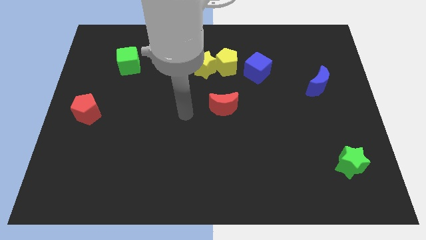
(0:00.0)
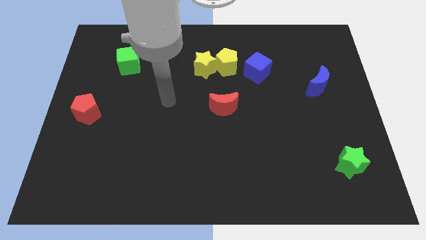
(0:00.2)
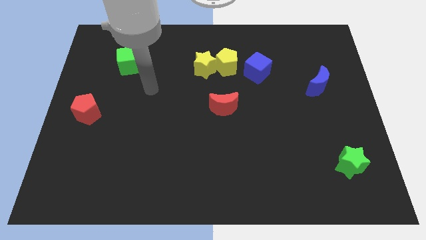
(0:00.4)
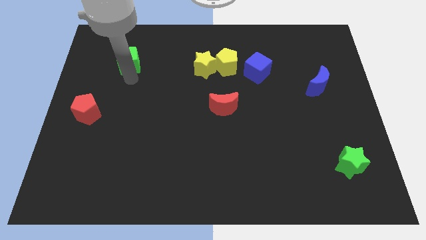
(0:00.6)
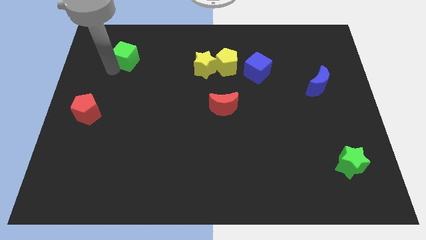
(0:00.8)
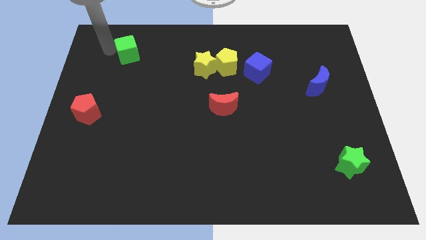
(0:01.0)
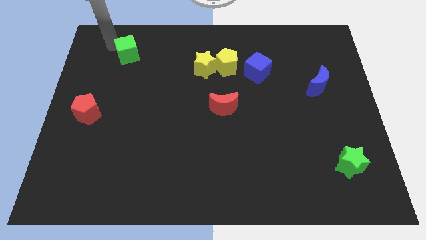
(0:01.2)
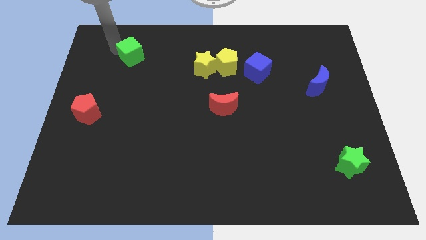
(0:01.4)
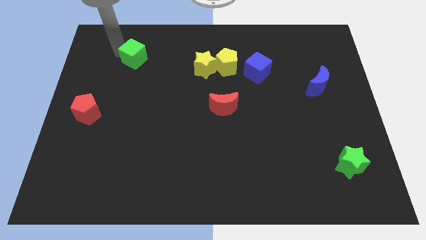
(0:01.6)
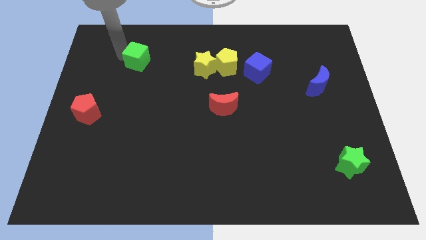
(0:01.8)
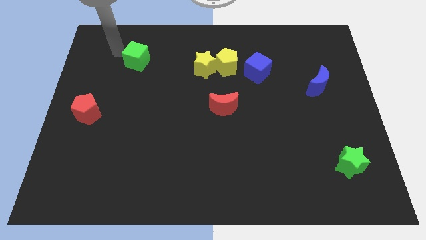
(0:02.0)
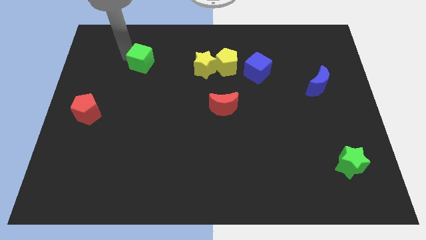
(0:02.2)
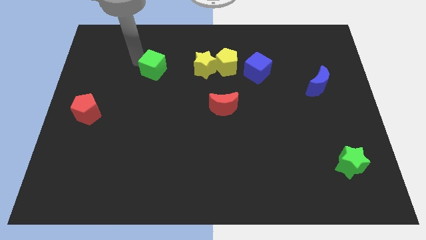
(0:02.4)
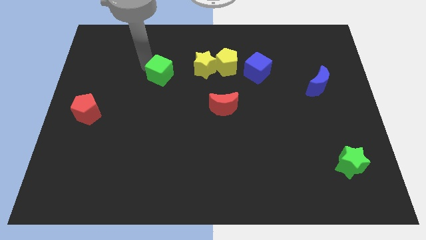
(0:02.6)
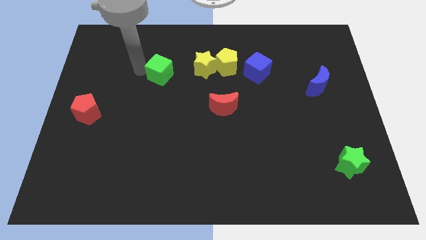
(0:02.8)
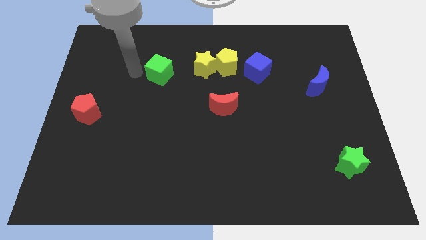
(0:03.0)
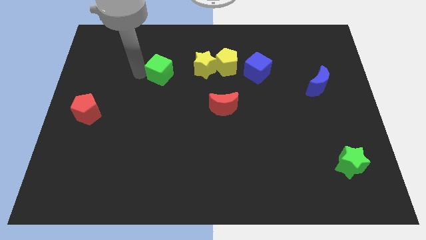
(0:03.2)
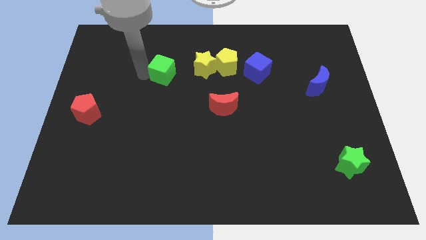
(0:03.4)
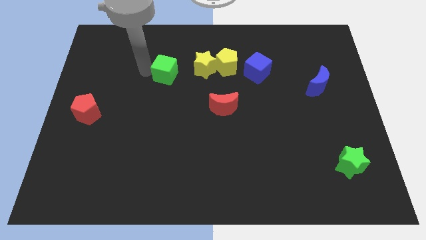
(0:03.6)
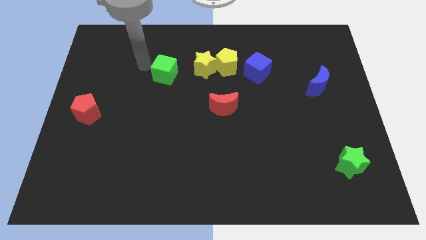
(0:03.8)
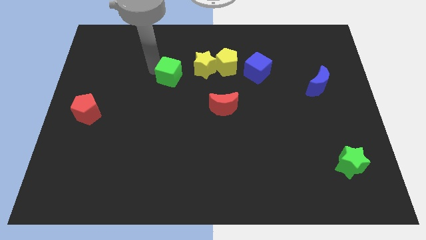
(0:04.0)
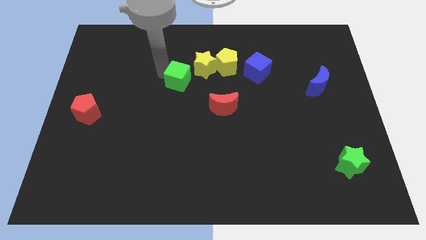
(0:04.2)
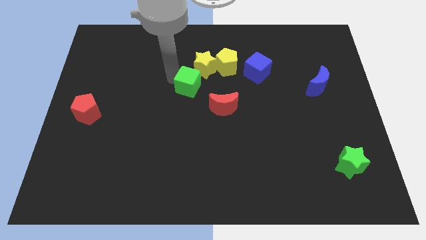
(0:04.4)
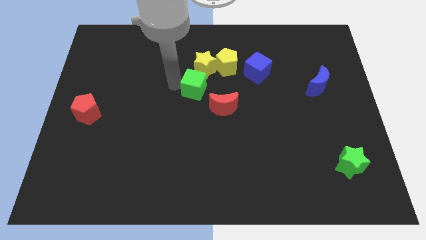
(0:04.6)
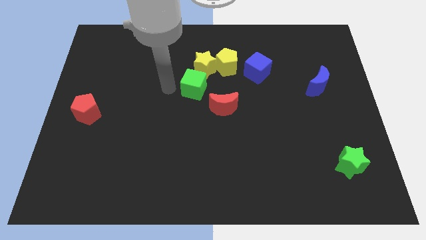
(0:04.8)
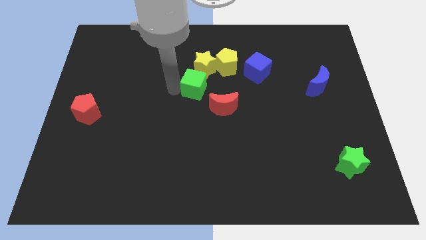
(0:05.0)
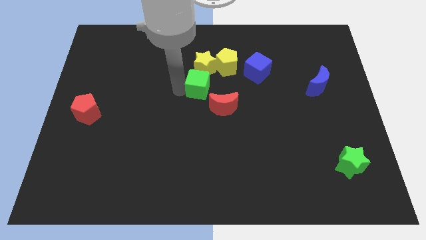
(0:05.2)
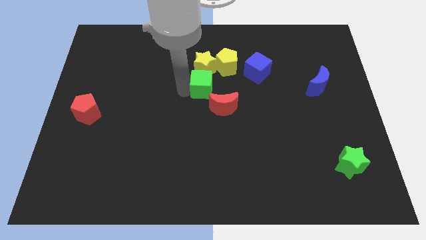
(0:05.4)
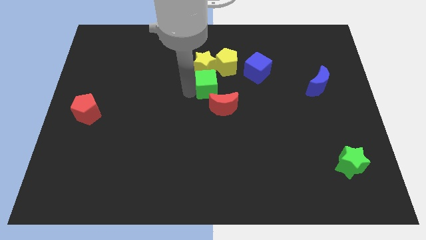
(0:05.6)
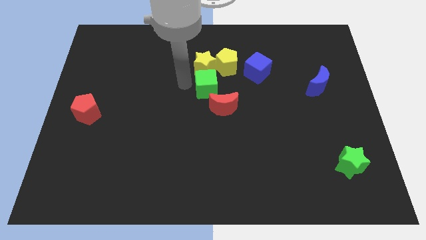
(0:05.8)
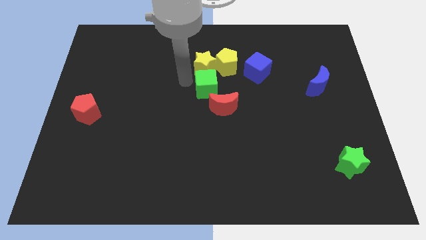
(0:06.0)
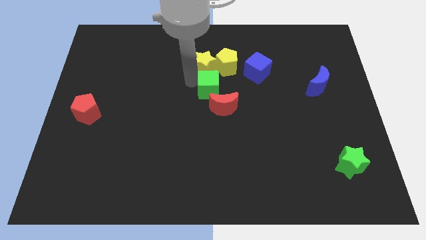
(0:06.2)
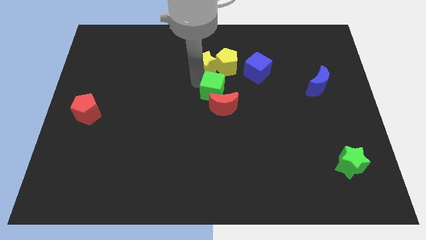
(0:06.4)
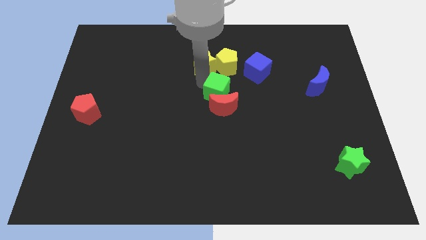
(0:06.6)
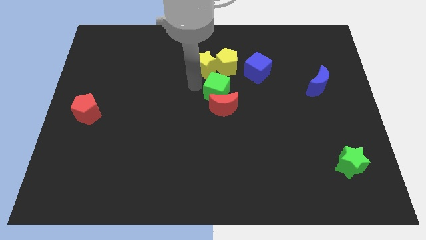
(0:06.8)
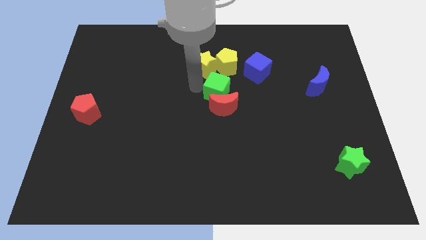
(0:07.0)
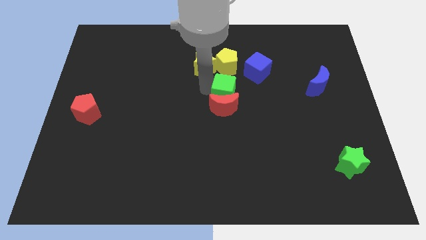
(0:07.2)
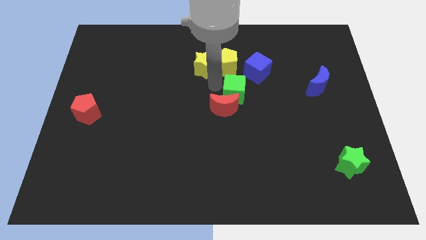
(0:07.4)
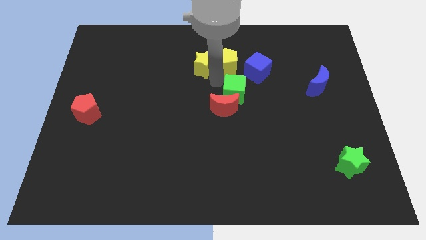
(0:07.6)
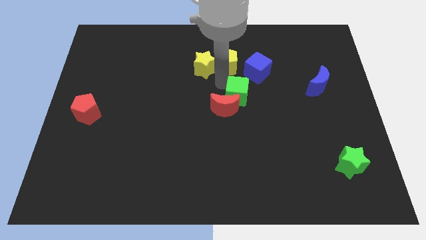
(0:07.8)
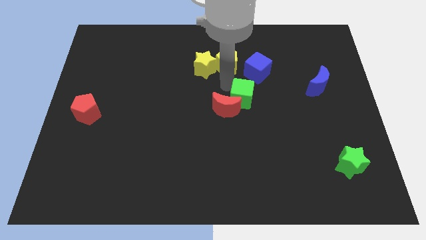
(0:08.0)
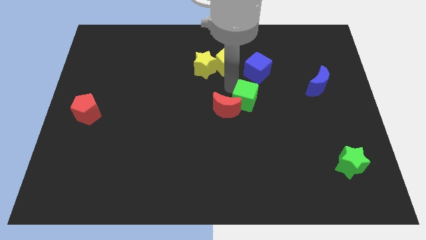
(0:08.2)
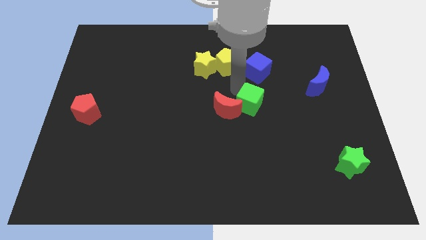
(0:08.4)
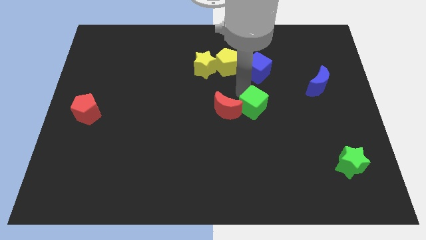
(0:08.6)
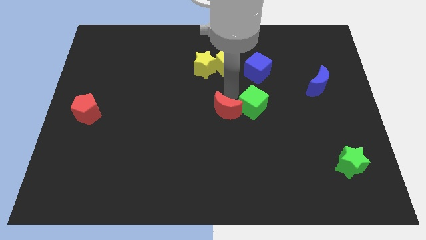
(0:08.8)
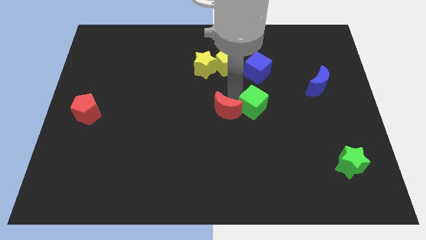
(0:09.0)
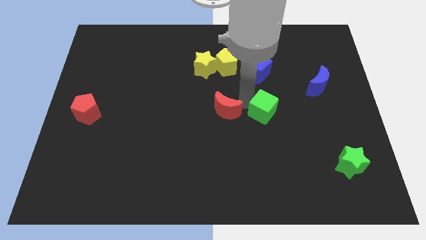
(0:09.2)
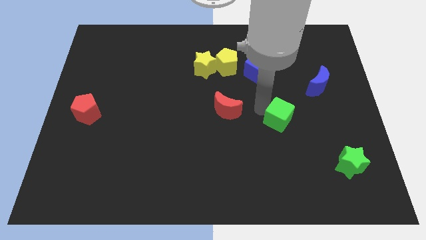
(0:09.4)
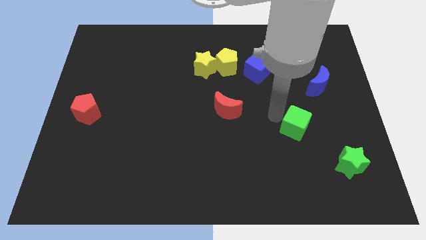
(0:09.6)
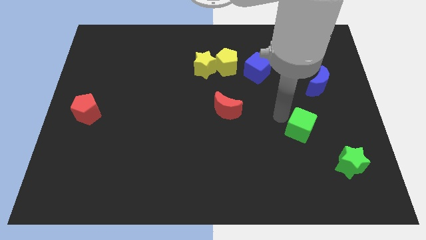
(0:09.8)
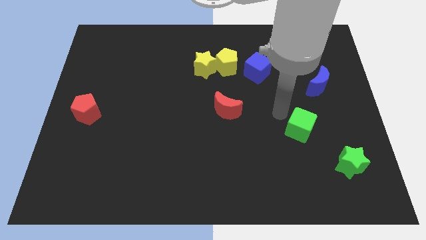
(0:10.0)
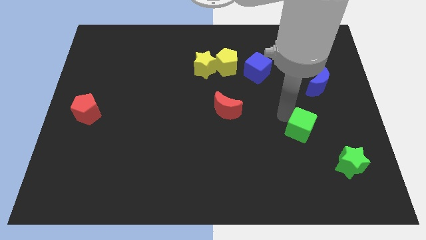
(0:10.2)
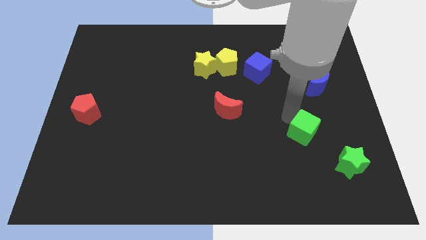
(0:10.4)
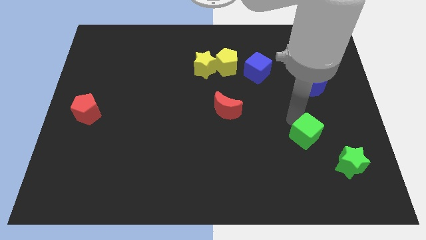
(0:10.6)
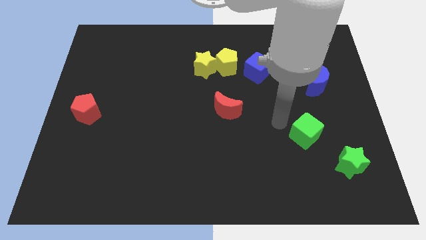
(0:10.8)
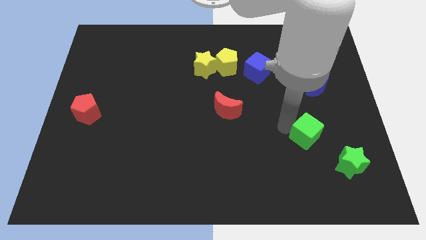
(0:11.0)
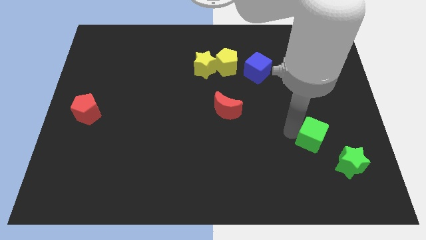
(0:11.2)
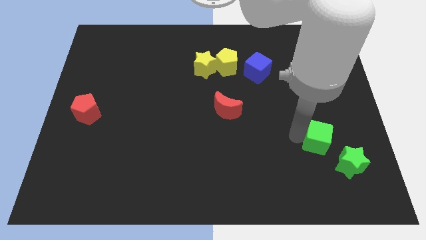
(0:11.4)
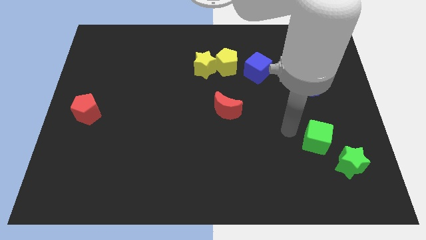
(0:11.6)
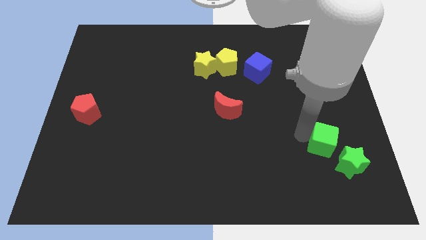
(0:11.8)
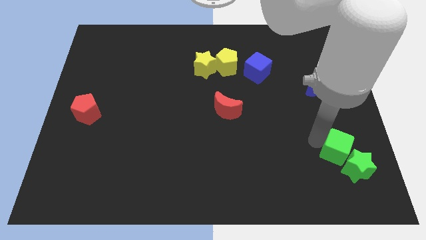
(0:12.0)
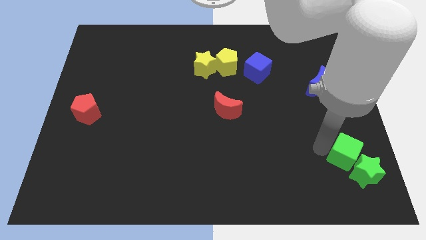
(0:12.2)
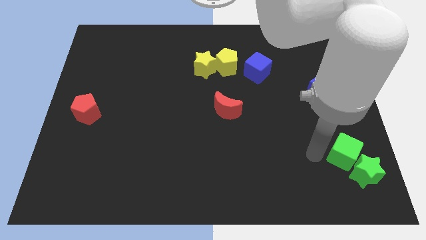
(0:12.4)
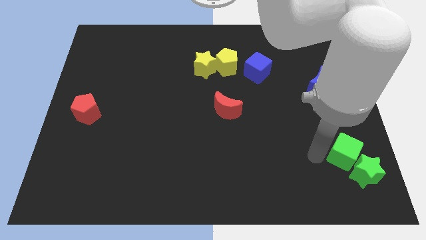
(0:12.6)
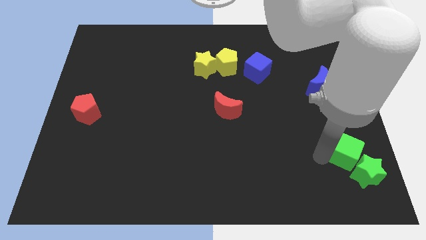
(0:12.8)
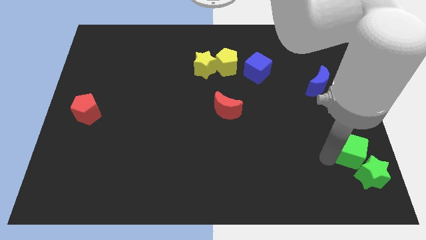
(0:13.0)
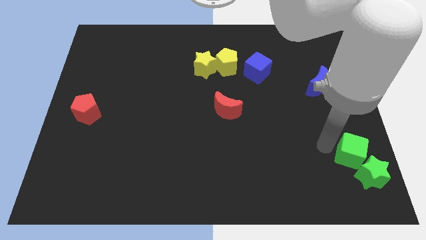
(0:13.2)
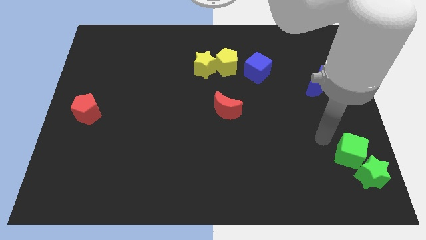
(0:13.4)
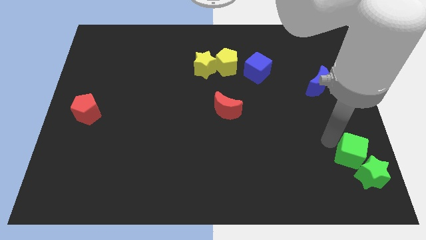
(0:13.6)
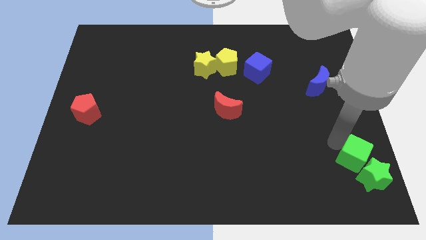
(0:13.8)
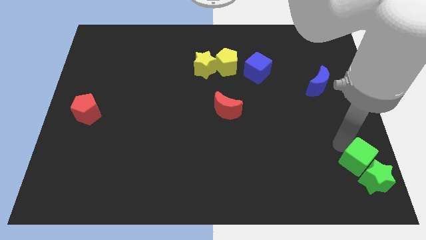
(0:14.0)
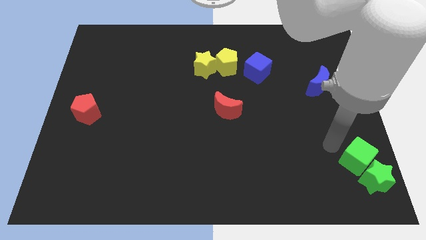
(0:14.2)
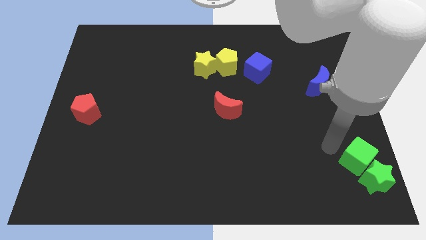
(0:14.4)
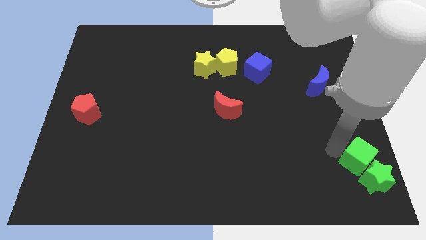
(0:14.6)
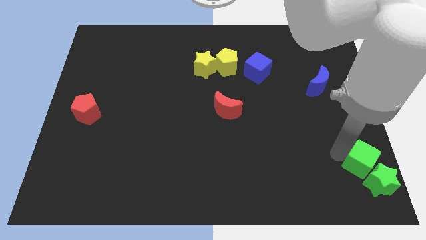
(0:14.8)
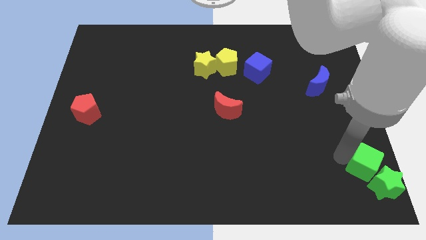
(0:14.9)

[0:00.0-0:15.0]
push the green cube to the bottom right corner
